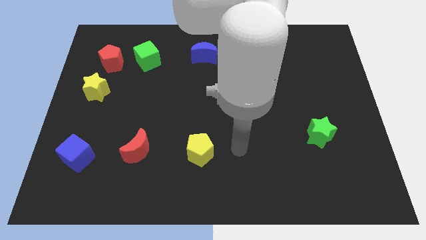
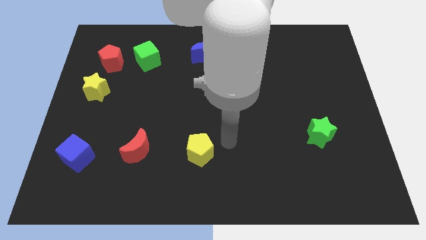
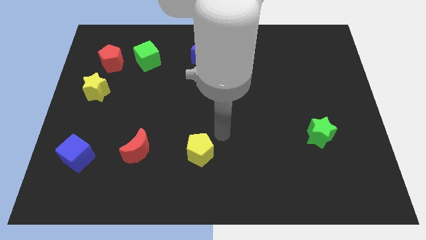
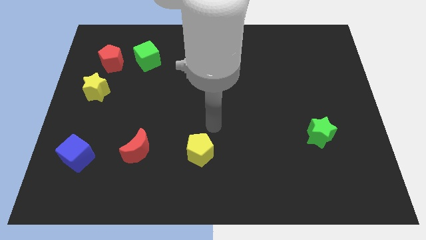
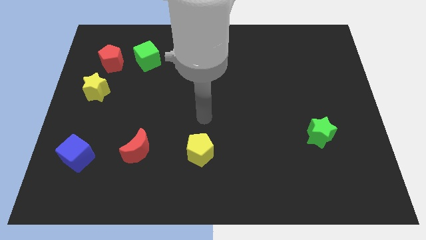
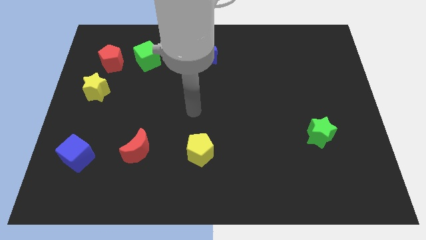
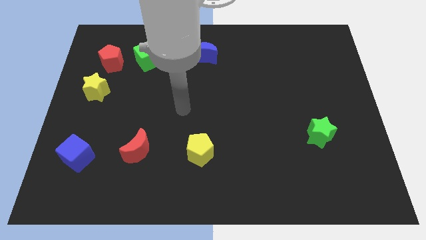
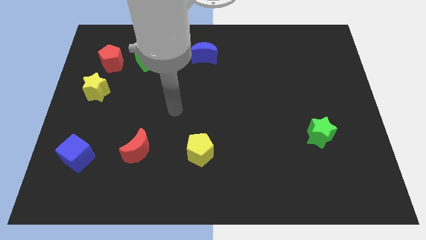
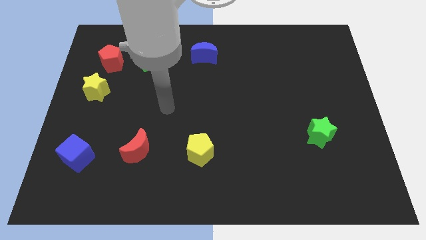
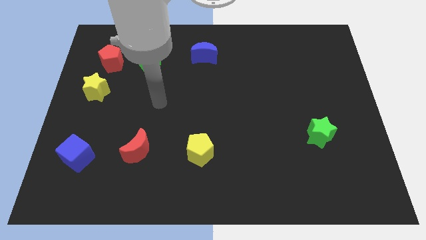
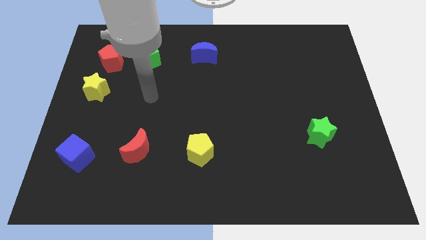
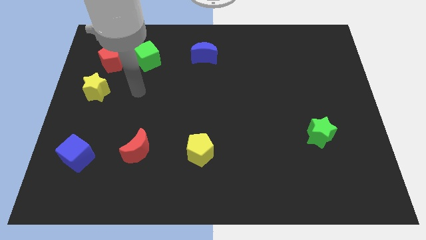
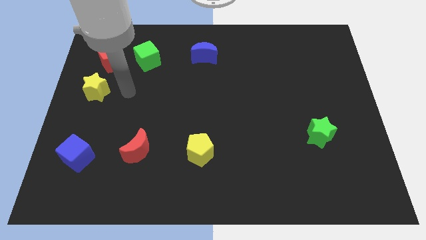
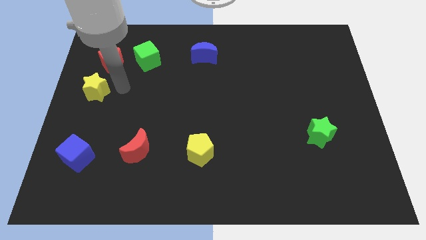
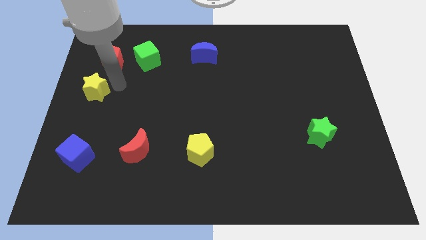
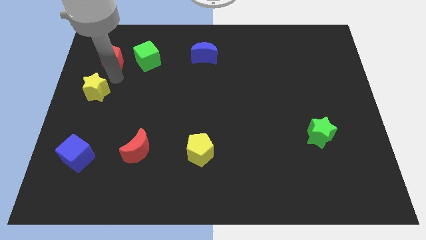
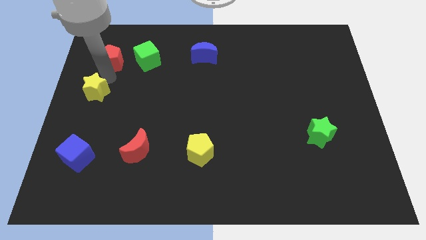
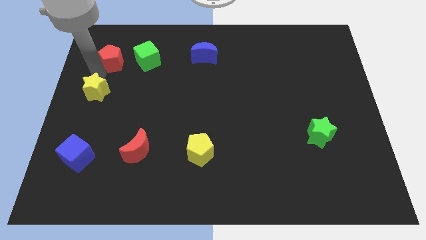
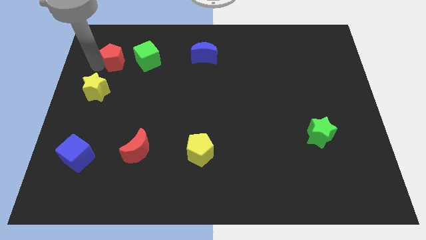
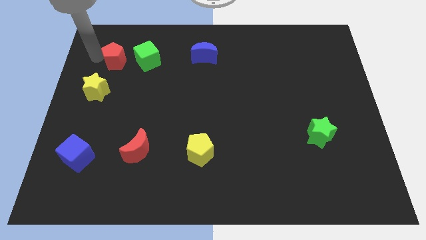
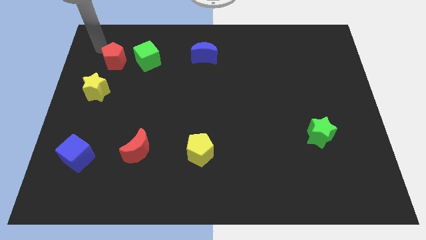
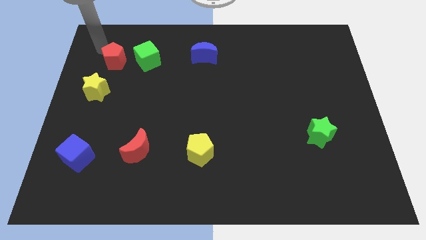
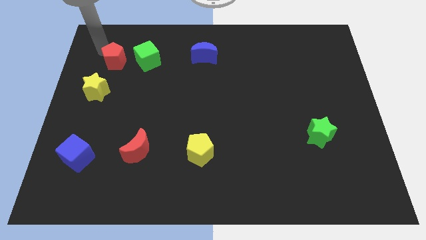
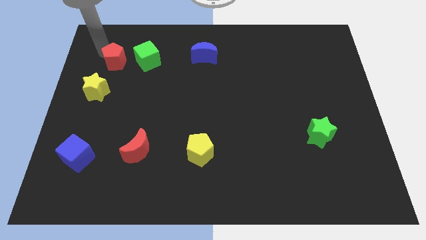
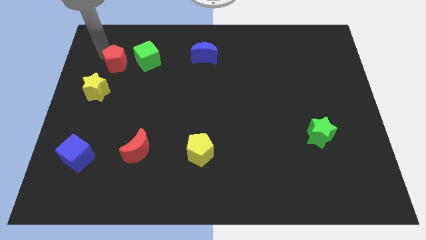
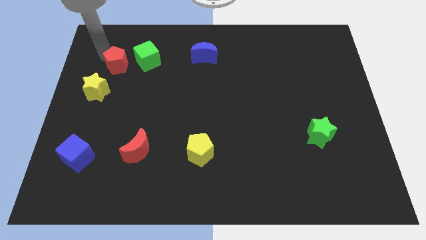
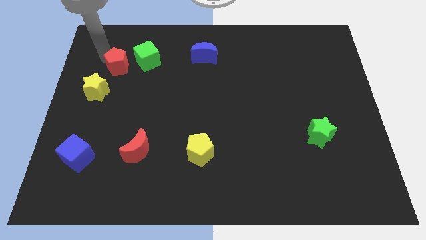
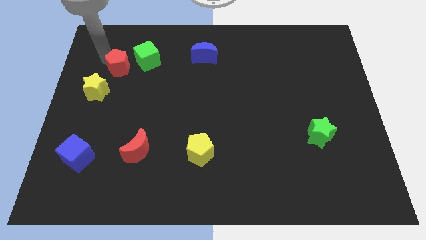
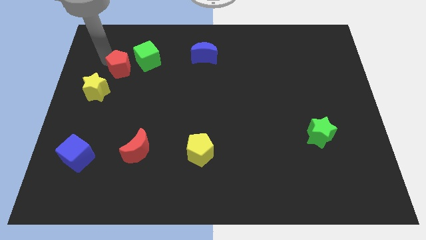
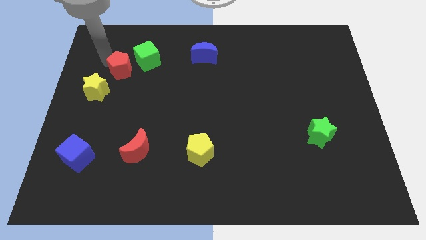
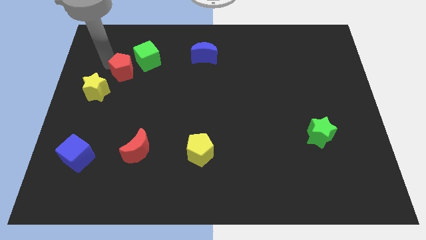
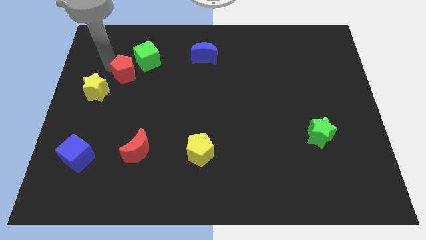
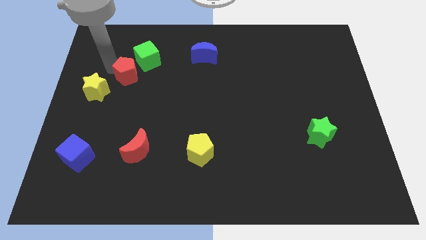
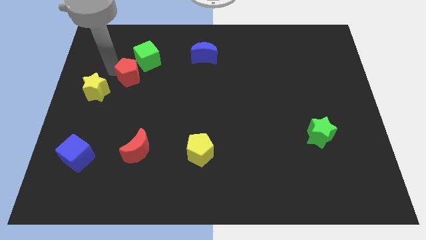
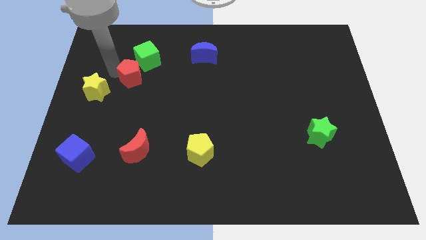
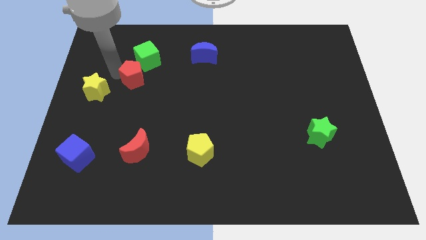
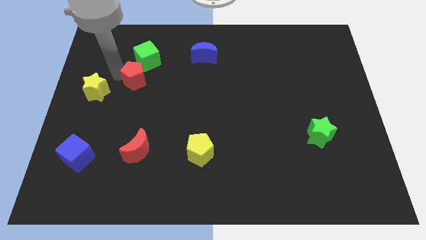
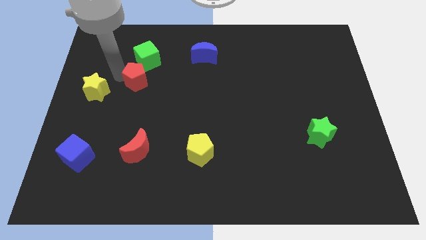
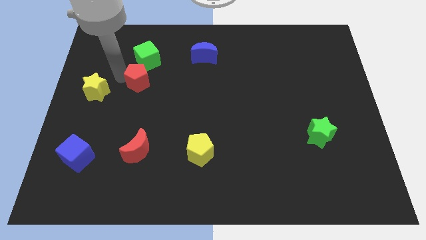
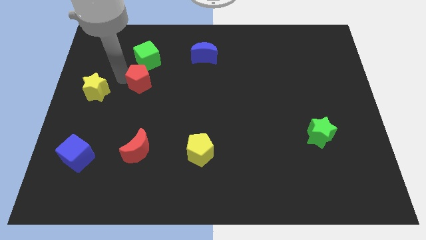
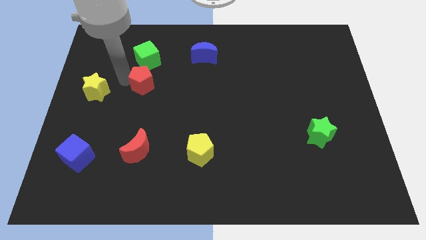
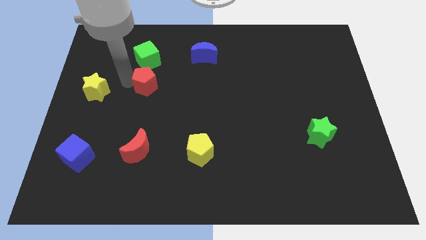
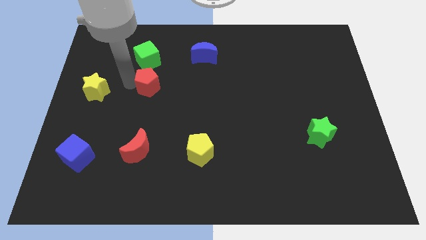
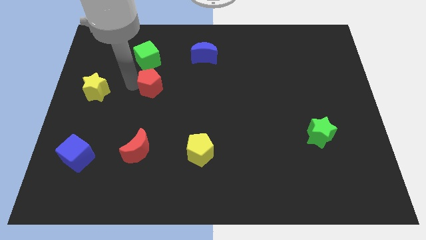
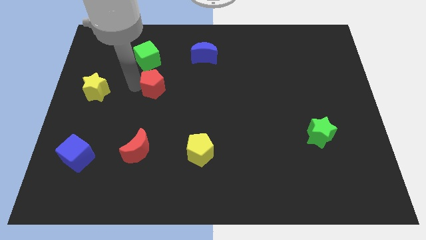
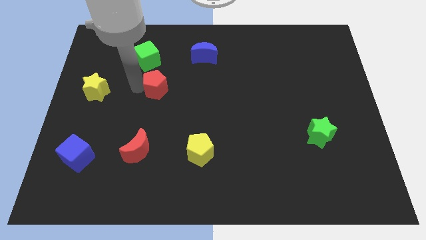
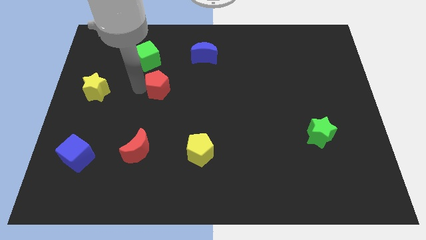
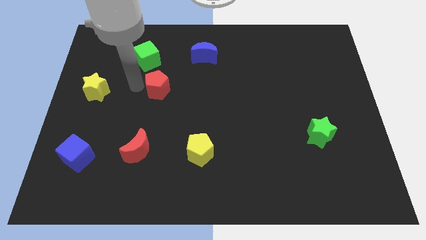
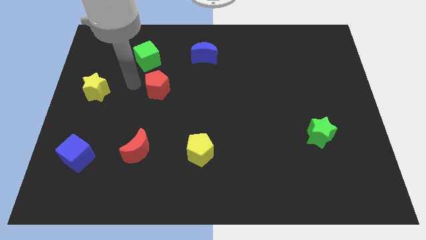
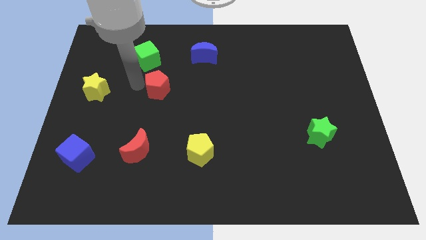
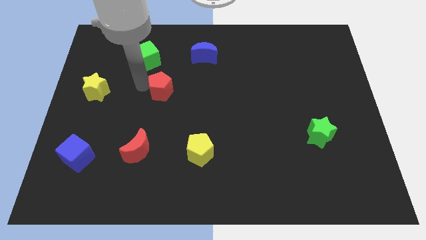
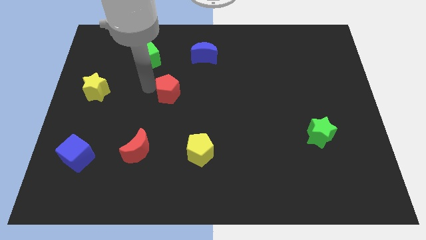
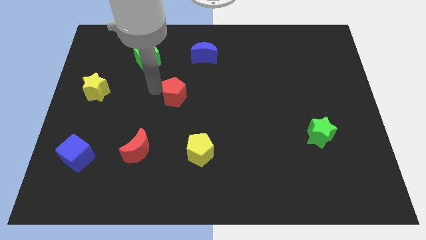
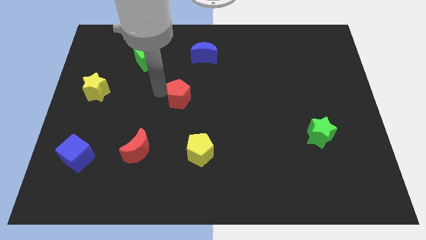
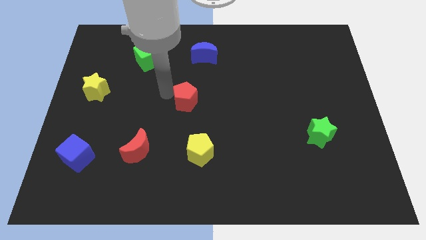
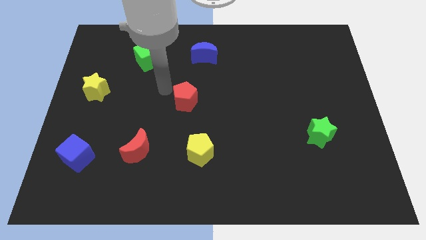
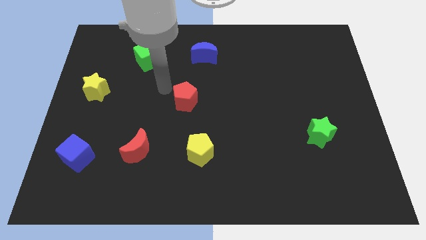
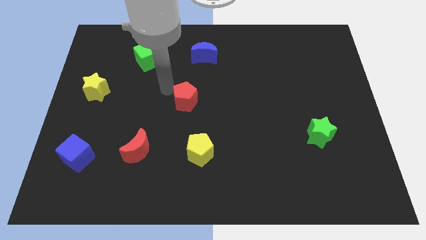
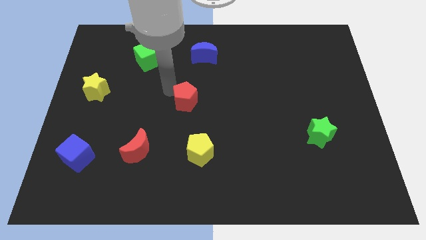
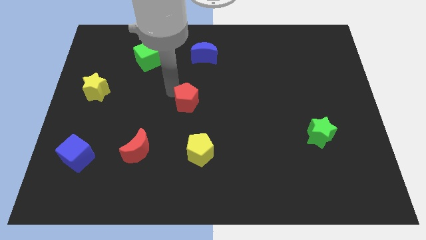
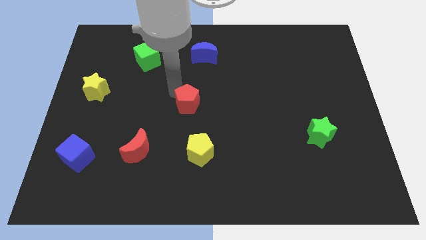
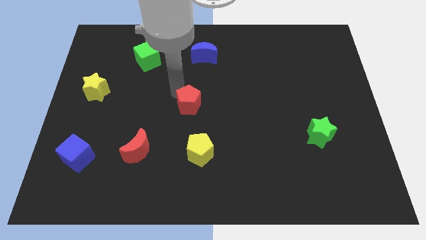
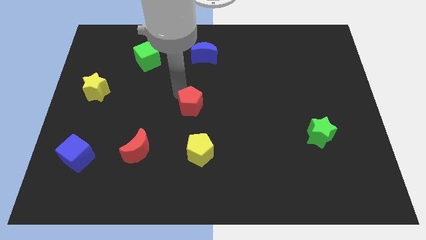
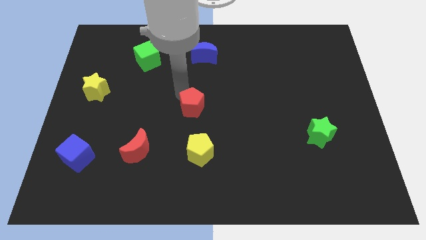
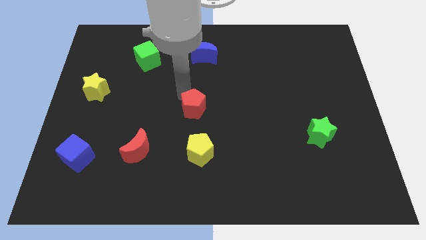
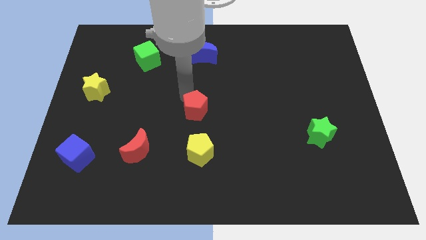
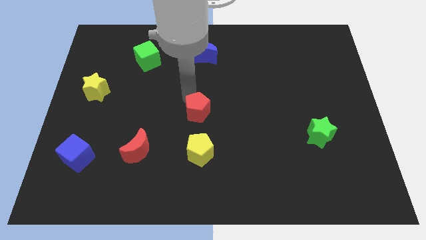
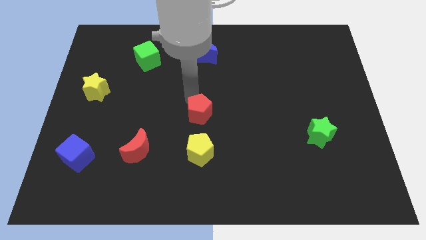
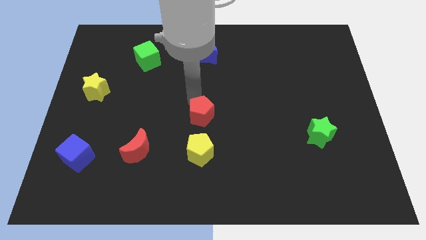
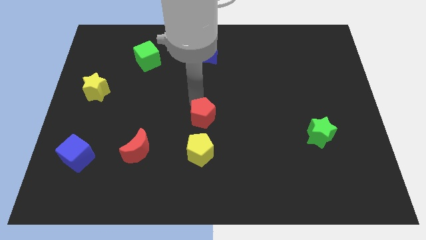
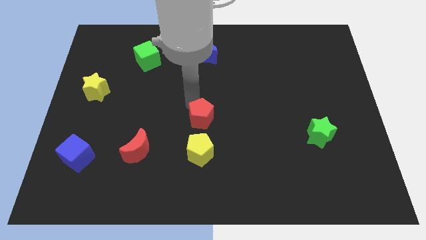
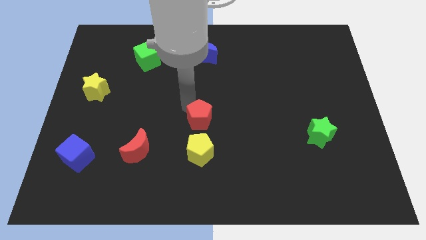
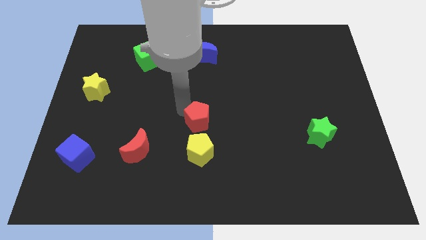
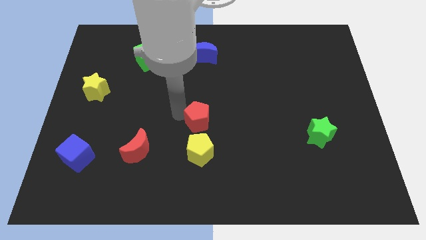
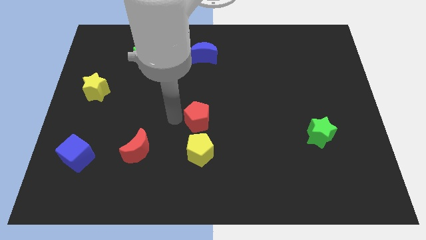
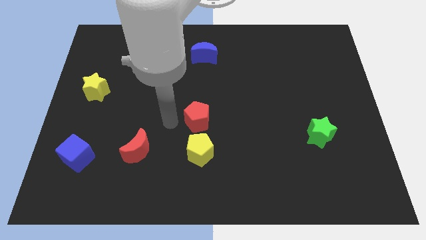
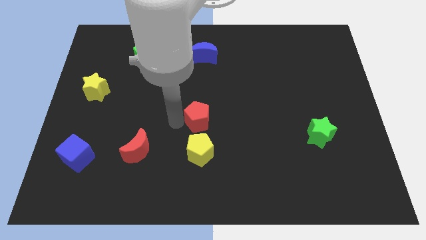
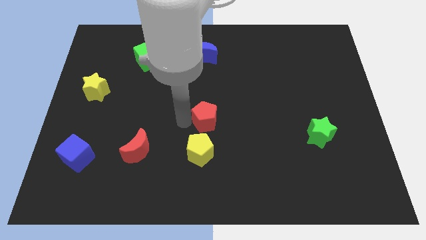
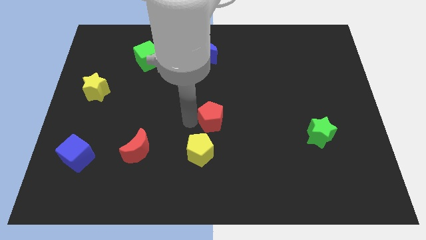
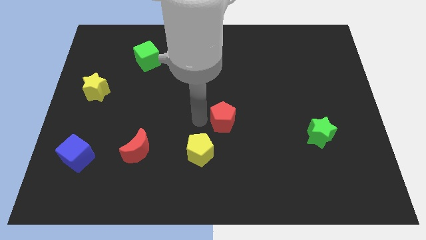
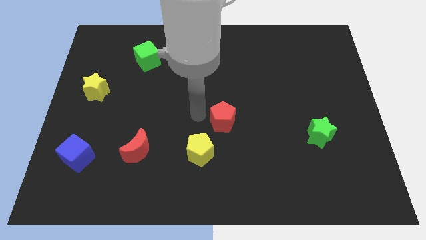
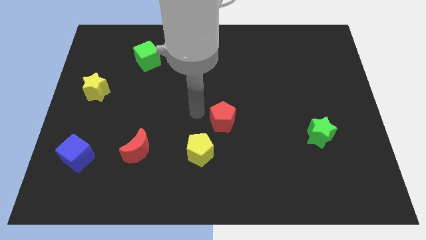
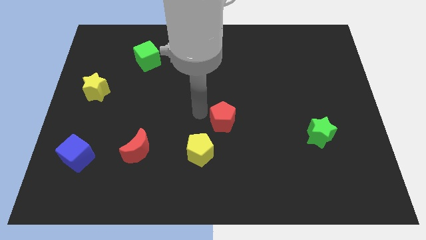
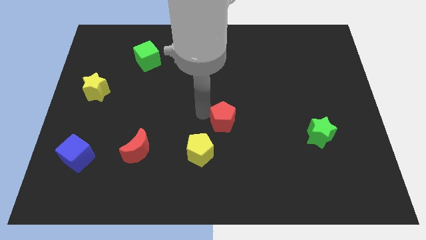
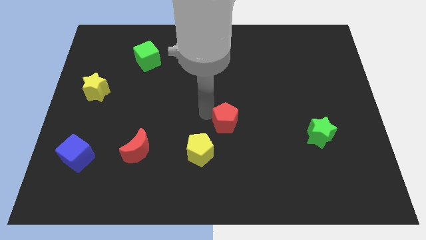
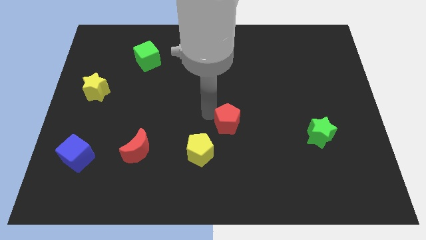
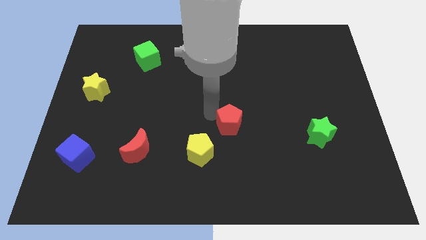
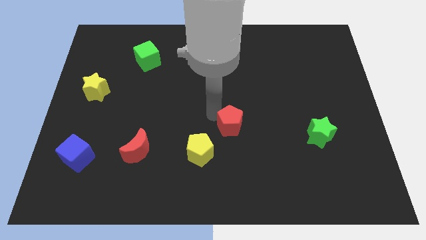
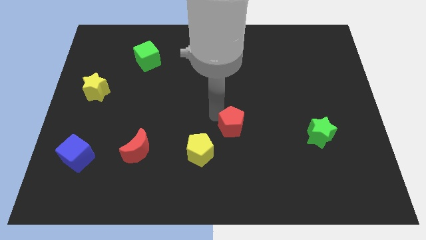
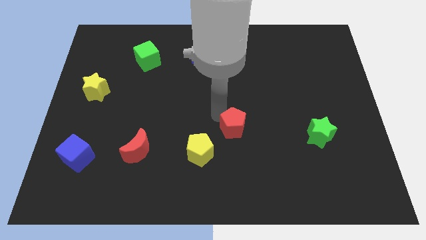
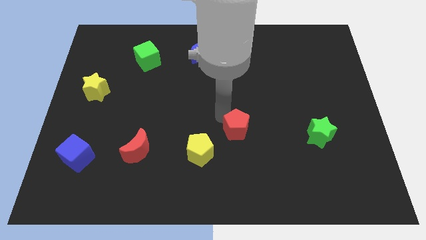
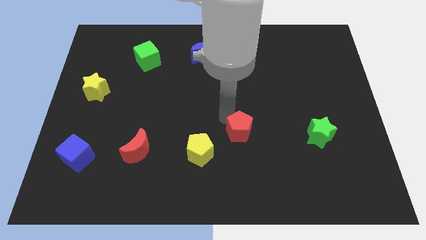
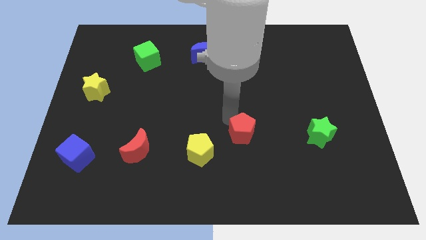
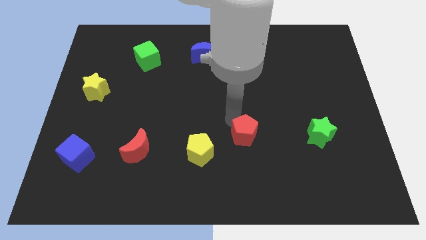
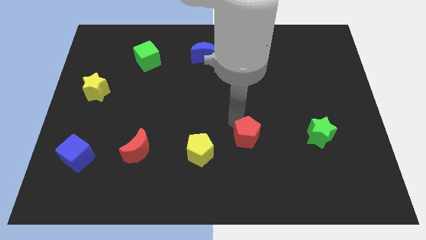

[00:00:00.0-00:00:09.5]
push the red pentagon to the left side of the green star
